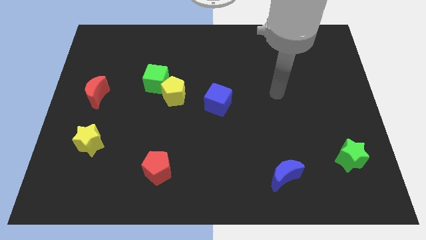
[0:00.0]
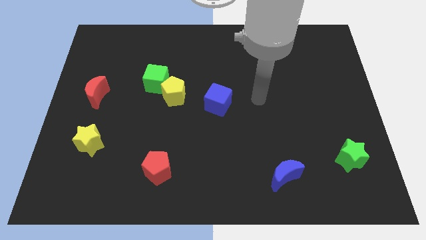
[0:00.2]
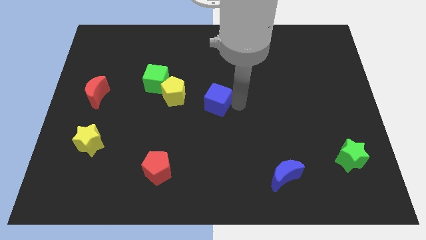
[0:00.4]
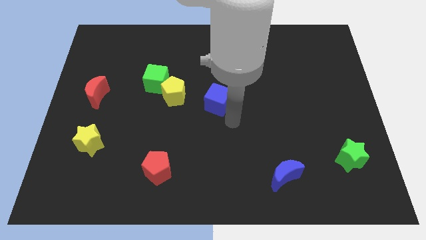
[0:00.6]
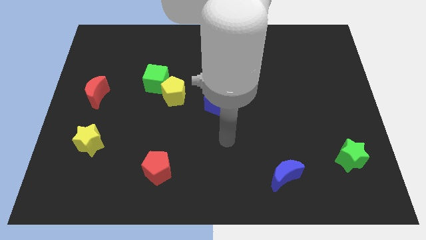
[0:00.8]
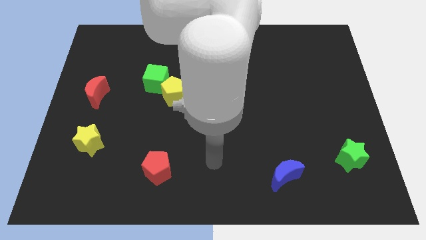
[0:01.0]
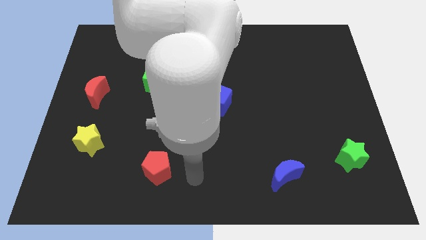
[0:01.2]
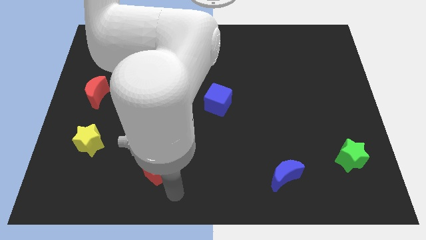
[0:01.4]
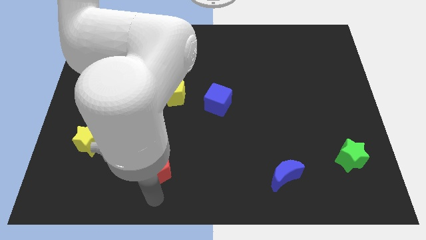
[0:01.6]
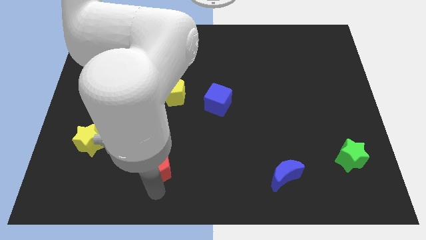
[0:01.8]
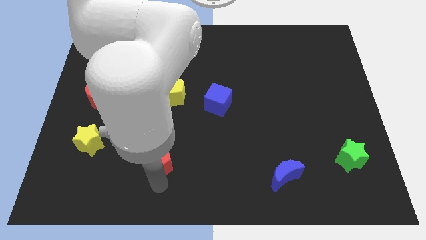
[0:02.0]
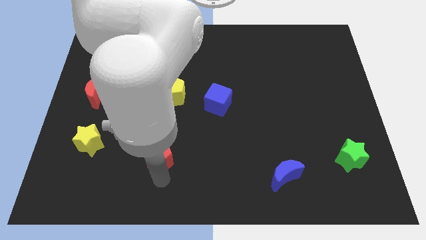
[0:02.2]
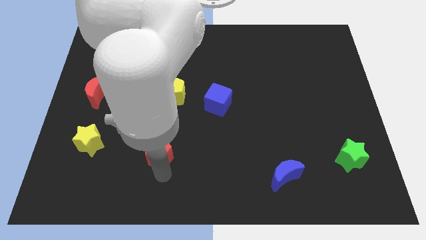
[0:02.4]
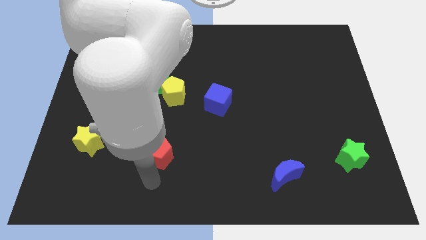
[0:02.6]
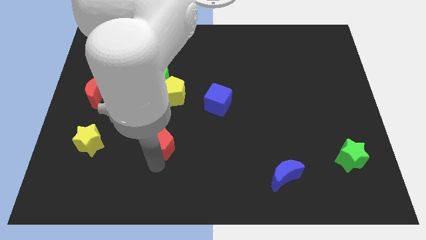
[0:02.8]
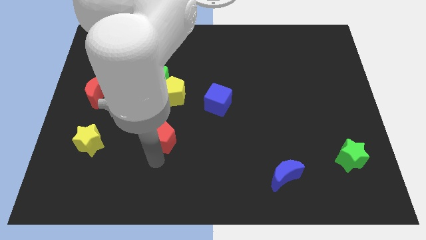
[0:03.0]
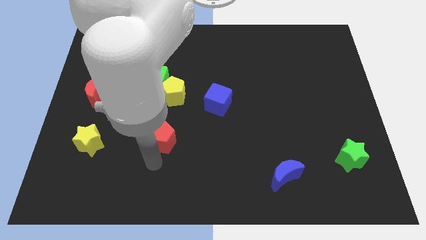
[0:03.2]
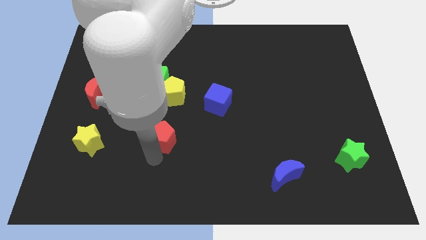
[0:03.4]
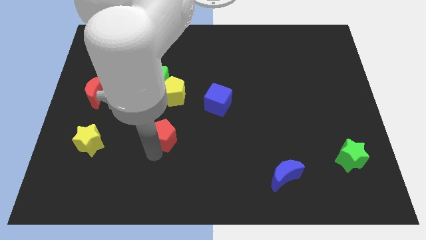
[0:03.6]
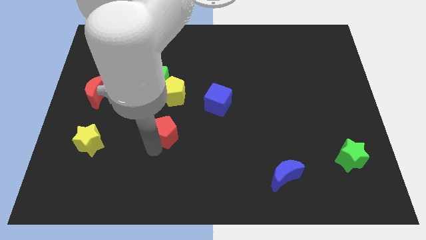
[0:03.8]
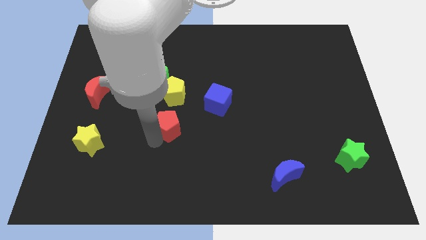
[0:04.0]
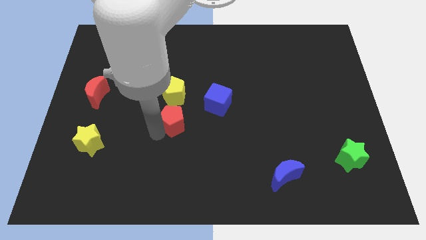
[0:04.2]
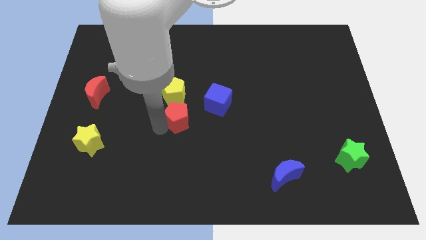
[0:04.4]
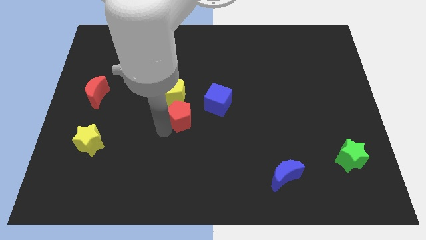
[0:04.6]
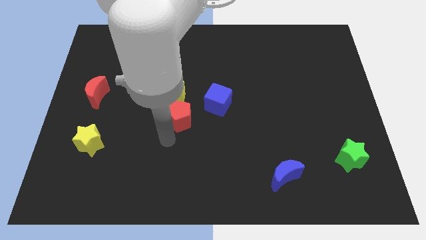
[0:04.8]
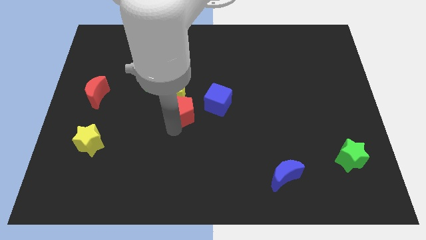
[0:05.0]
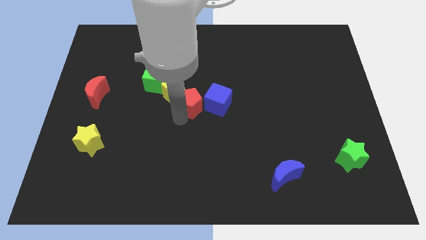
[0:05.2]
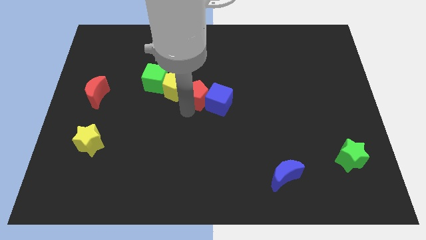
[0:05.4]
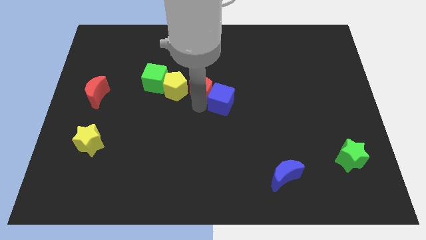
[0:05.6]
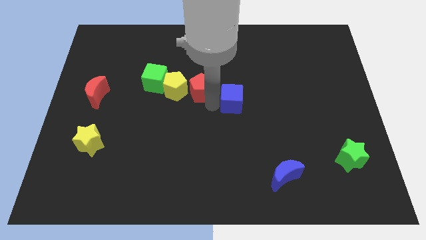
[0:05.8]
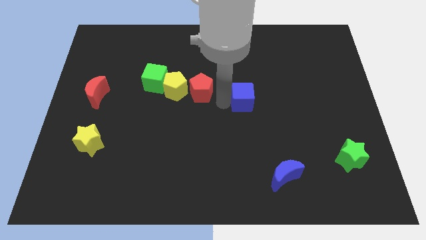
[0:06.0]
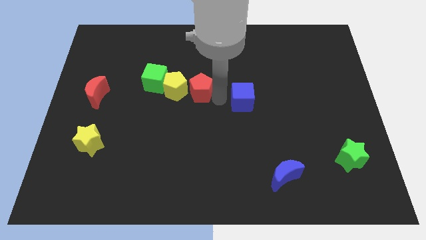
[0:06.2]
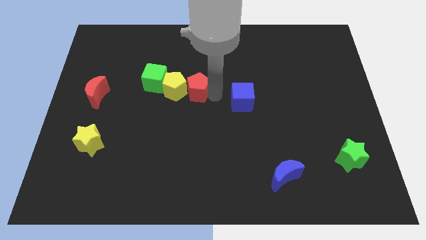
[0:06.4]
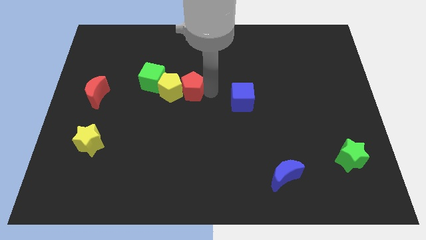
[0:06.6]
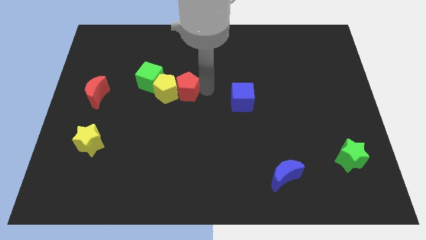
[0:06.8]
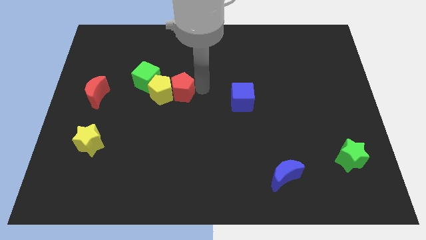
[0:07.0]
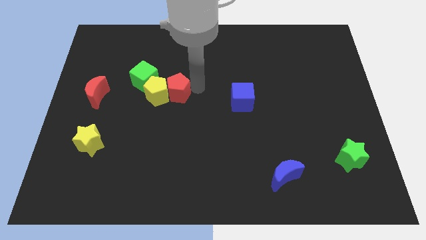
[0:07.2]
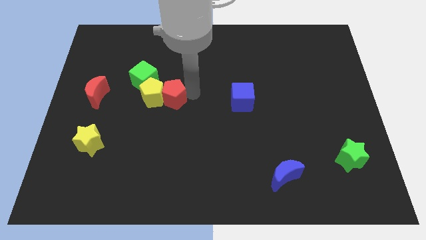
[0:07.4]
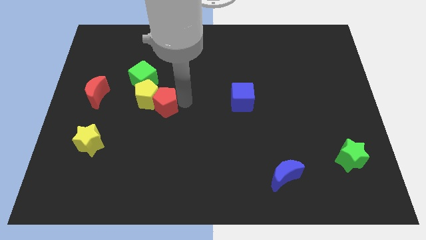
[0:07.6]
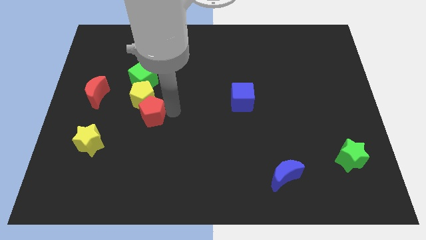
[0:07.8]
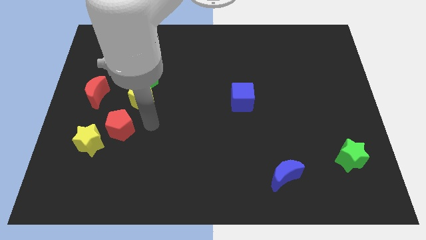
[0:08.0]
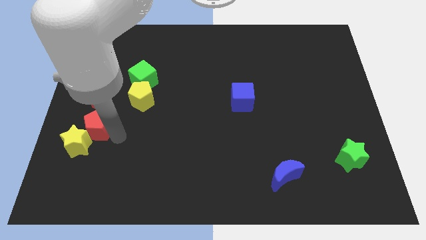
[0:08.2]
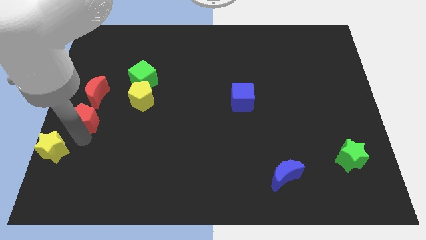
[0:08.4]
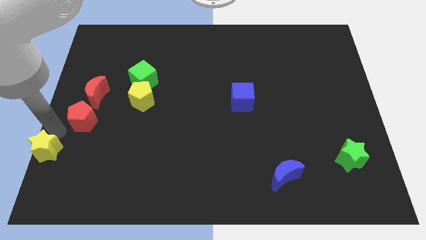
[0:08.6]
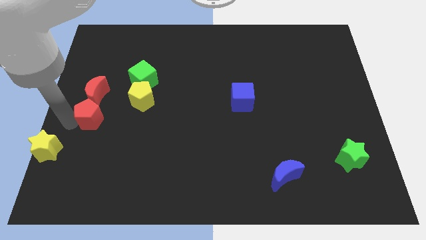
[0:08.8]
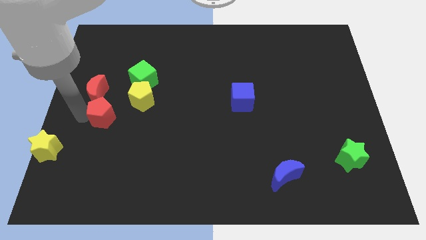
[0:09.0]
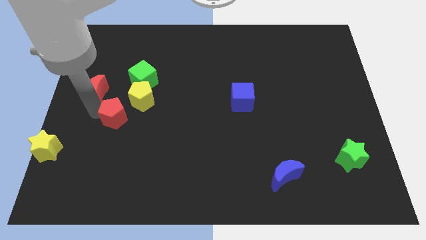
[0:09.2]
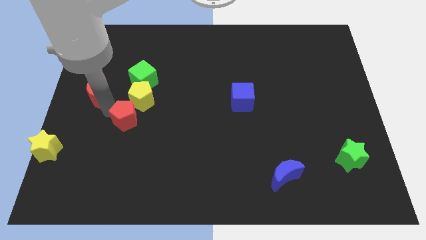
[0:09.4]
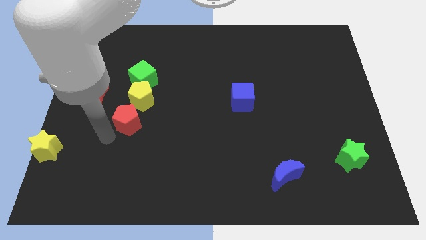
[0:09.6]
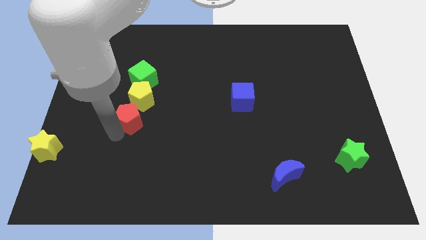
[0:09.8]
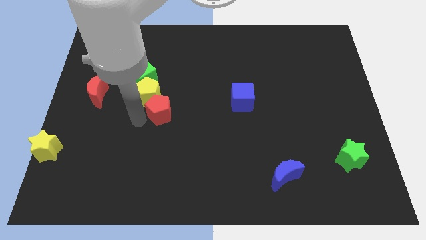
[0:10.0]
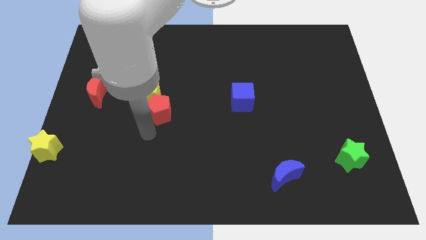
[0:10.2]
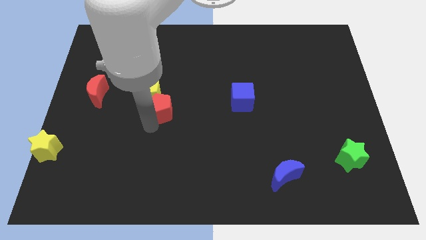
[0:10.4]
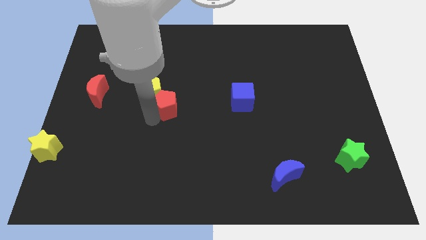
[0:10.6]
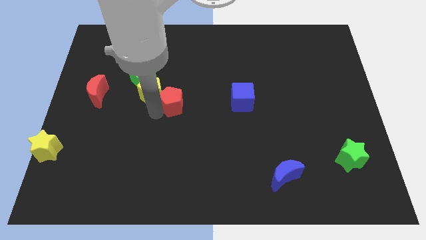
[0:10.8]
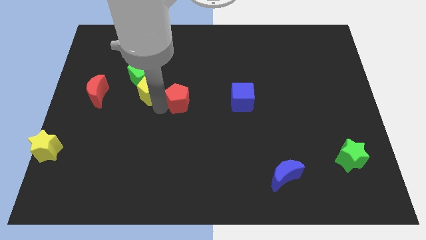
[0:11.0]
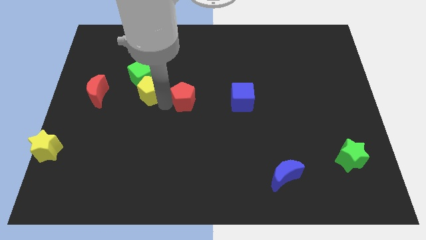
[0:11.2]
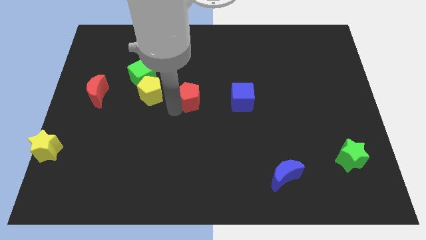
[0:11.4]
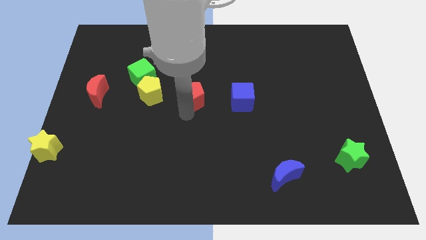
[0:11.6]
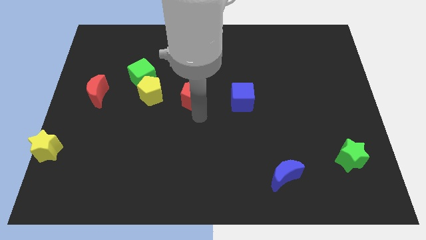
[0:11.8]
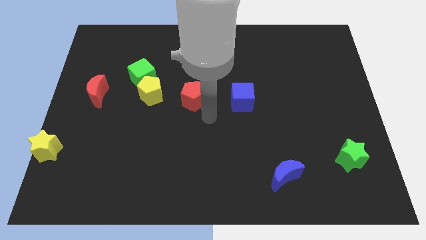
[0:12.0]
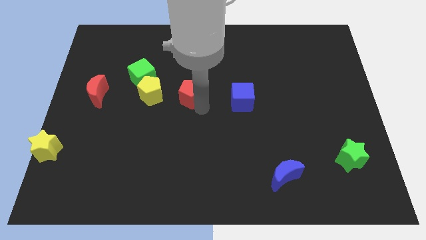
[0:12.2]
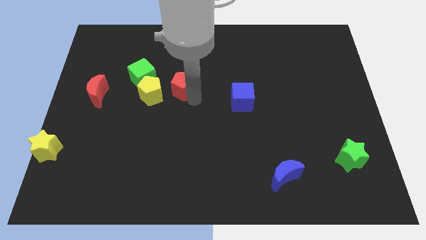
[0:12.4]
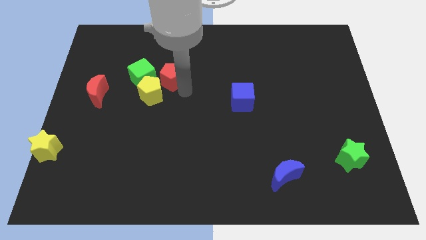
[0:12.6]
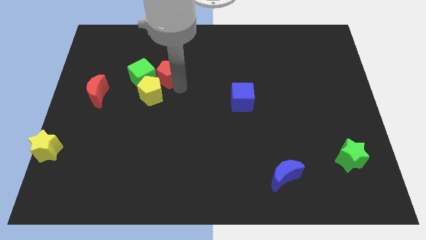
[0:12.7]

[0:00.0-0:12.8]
slide the red pentagon diagonally up and to the right of the green cube

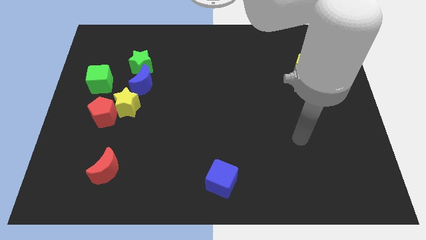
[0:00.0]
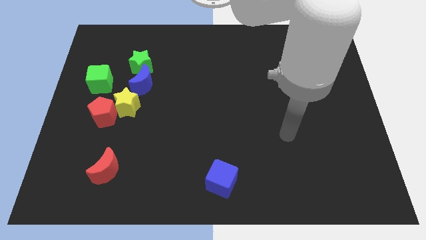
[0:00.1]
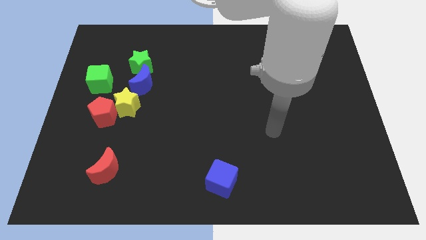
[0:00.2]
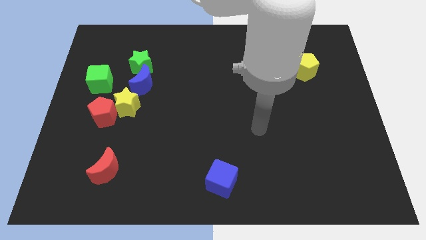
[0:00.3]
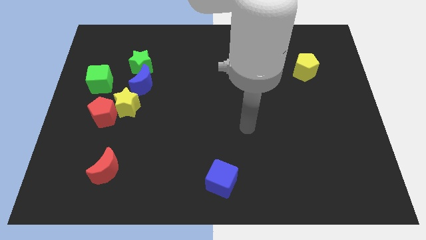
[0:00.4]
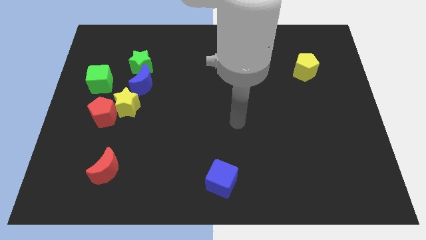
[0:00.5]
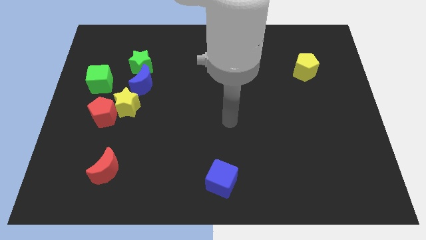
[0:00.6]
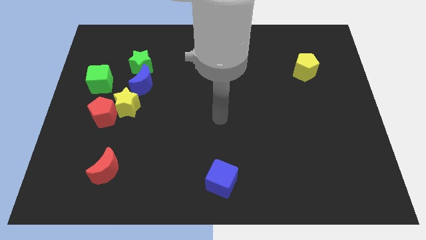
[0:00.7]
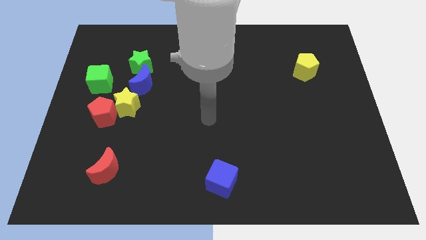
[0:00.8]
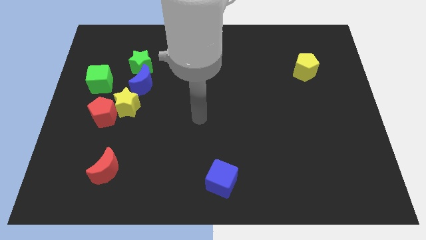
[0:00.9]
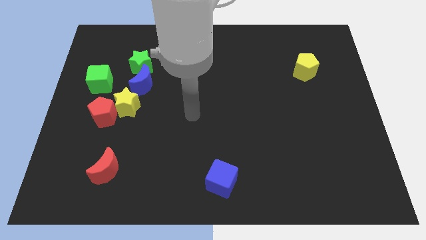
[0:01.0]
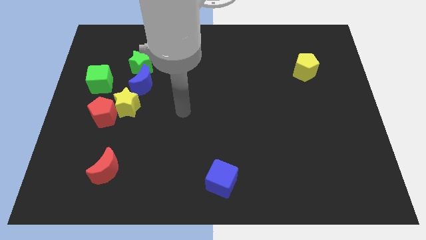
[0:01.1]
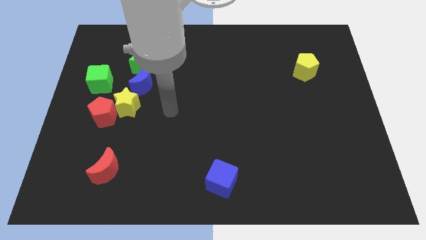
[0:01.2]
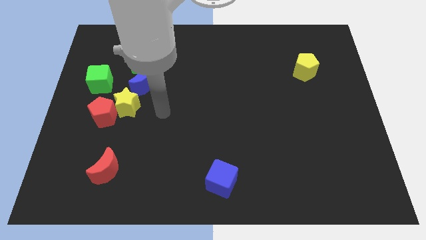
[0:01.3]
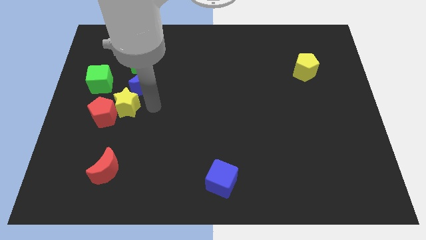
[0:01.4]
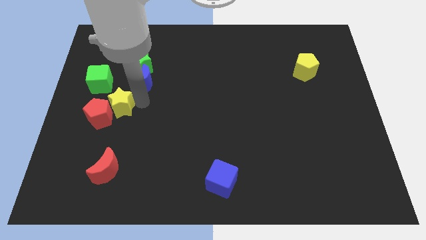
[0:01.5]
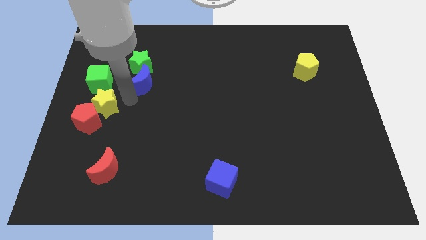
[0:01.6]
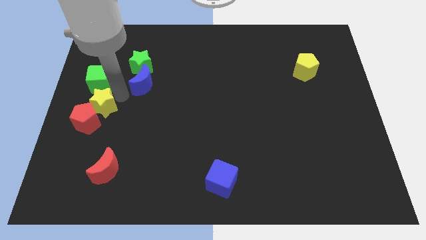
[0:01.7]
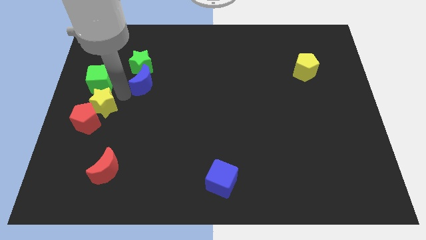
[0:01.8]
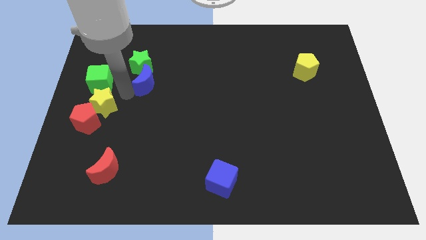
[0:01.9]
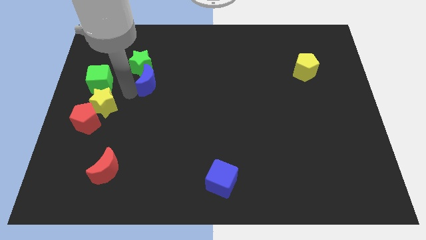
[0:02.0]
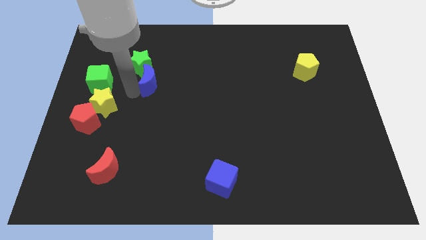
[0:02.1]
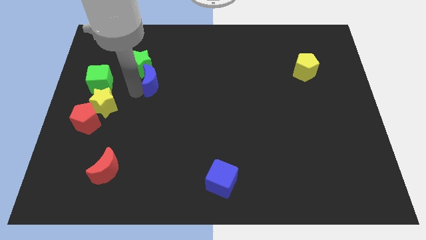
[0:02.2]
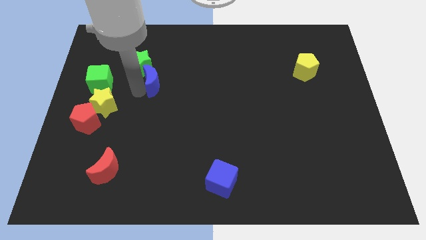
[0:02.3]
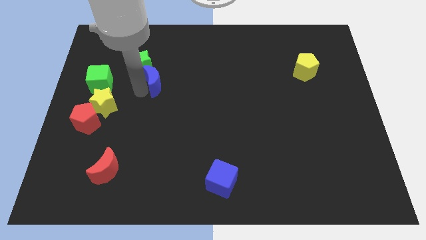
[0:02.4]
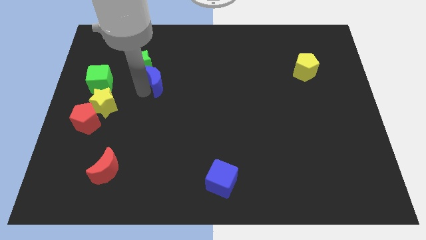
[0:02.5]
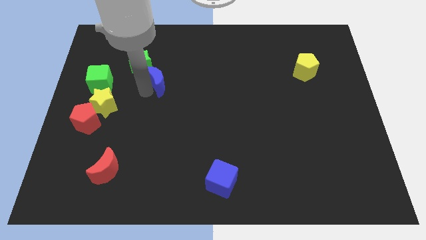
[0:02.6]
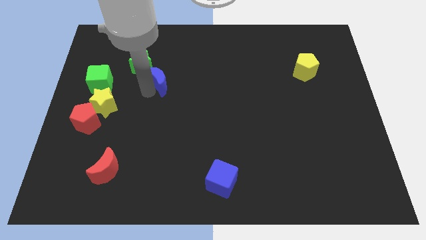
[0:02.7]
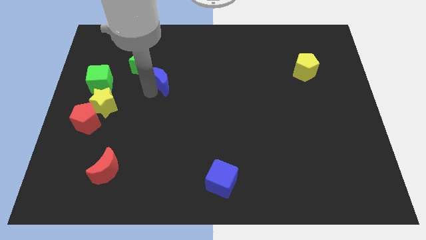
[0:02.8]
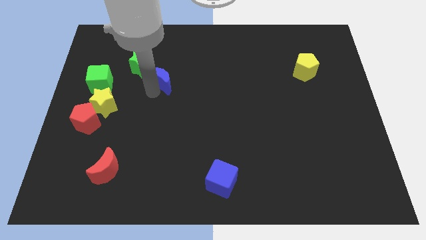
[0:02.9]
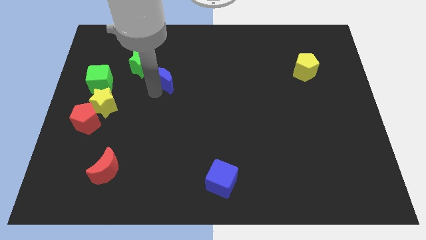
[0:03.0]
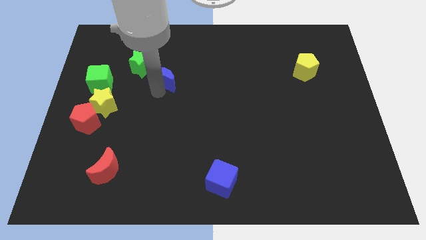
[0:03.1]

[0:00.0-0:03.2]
push the blue moon right of the green star
